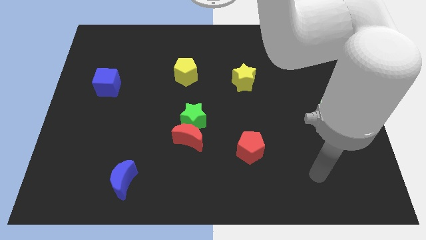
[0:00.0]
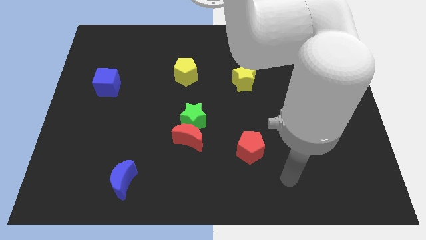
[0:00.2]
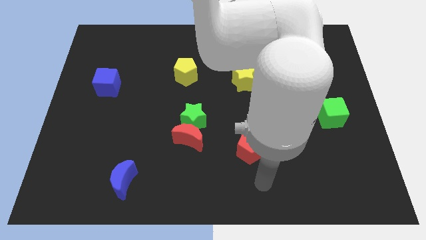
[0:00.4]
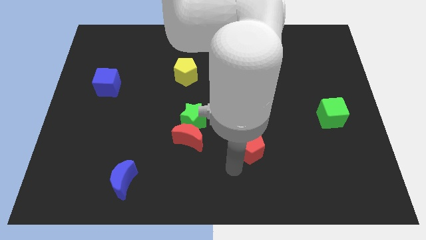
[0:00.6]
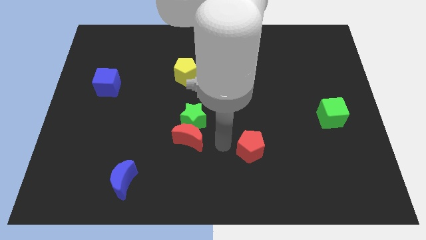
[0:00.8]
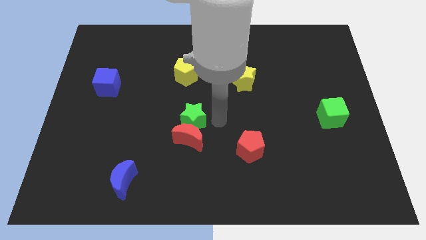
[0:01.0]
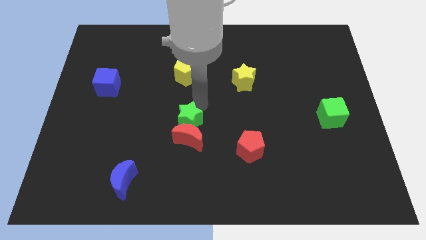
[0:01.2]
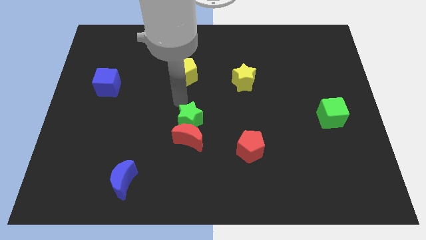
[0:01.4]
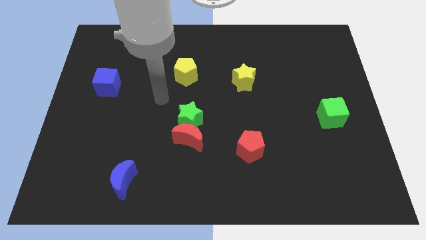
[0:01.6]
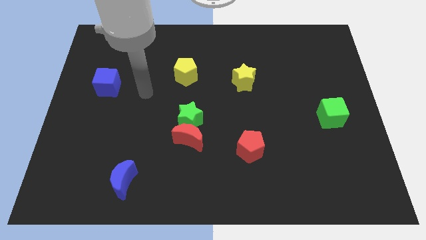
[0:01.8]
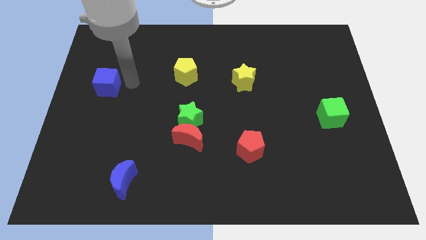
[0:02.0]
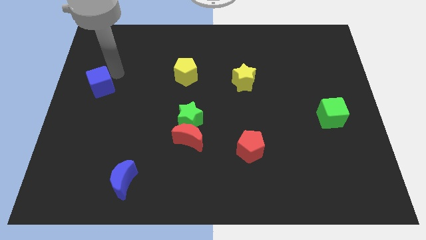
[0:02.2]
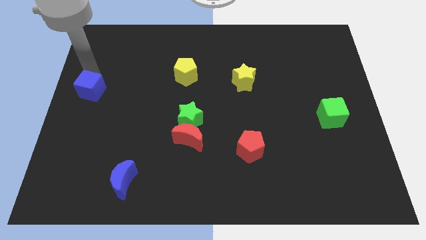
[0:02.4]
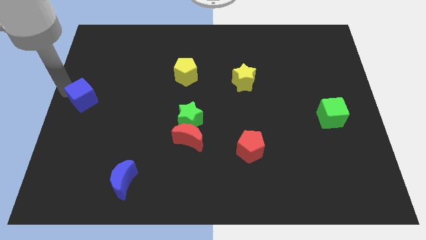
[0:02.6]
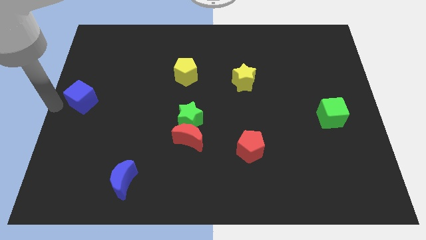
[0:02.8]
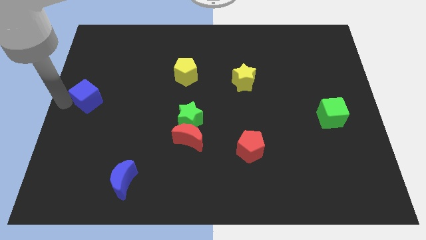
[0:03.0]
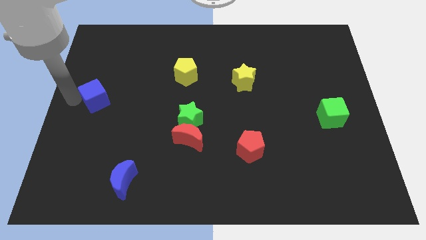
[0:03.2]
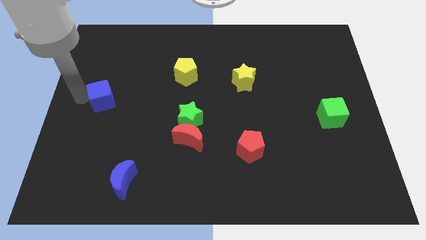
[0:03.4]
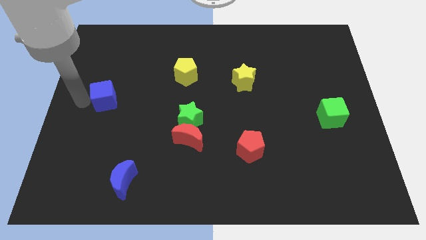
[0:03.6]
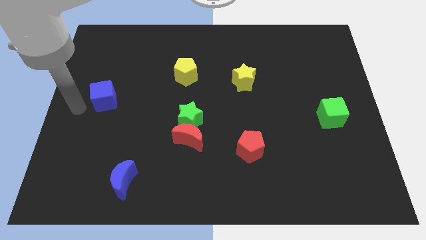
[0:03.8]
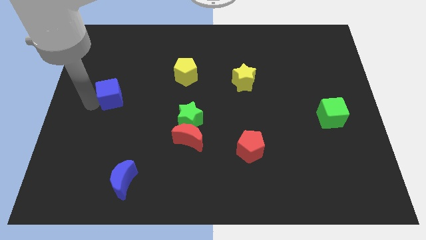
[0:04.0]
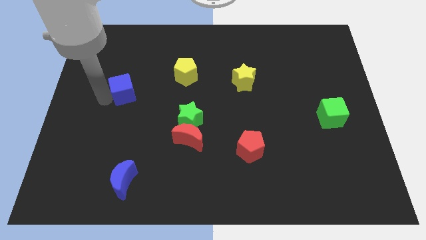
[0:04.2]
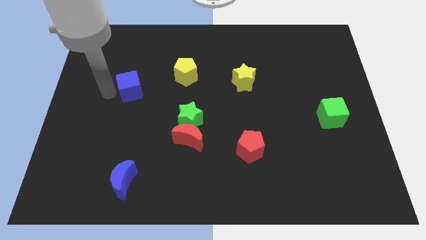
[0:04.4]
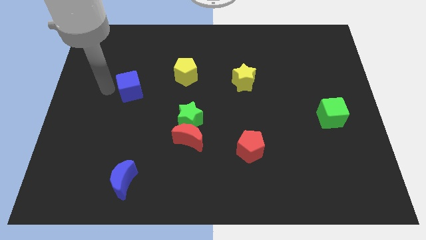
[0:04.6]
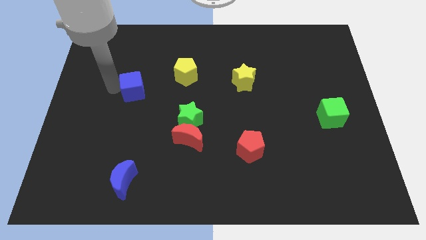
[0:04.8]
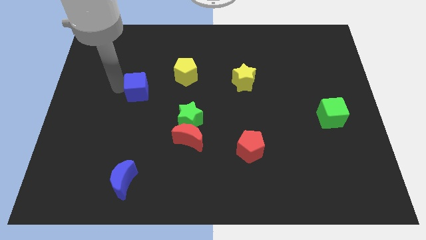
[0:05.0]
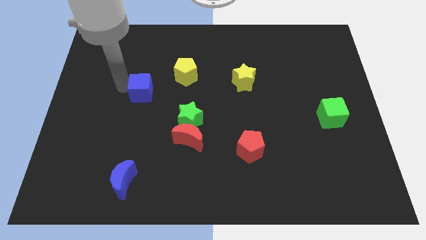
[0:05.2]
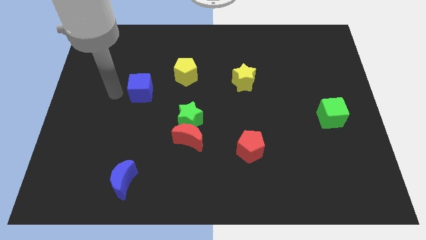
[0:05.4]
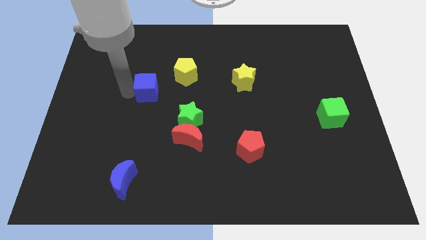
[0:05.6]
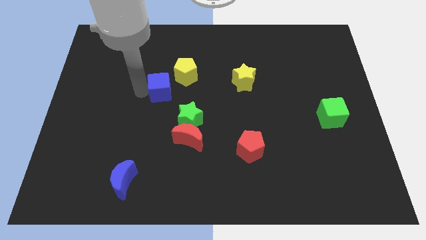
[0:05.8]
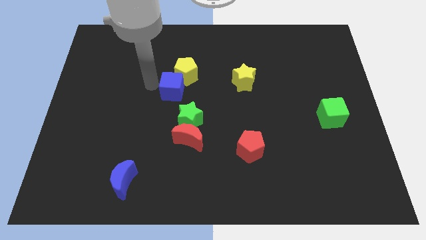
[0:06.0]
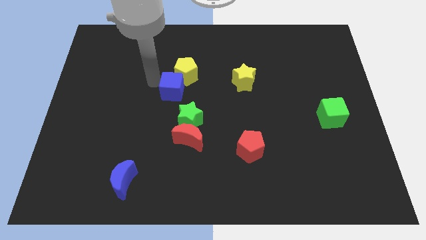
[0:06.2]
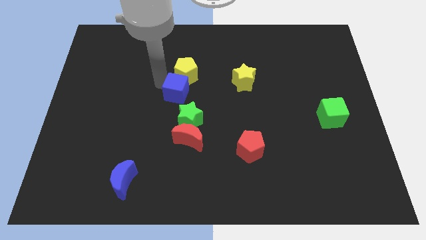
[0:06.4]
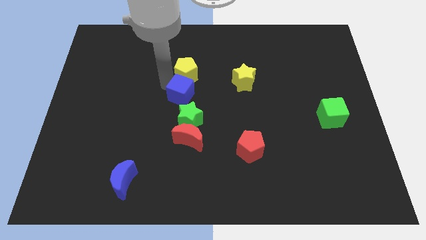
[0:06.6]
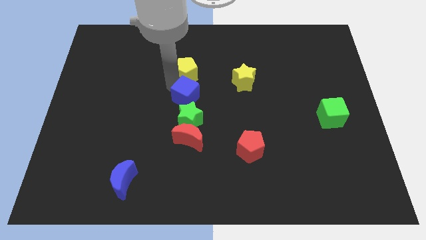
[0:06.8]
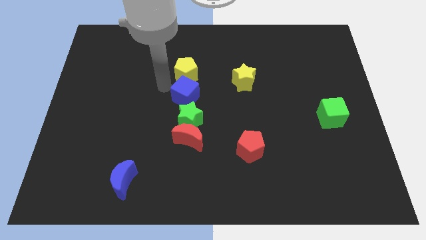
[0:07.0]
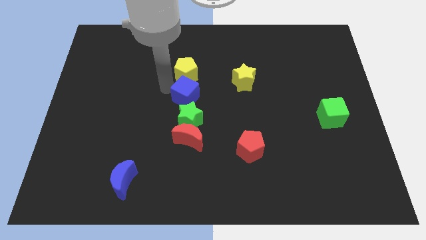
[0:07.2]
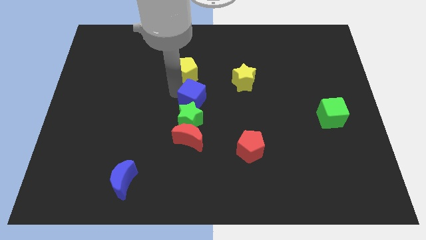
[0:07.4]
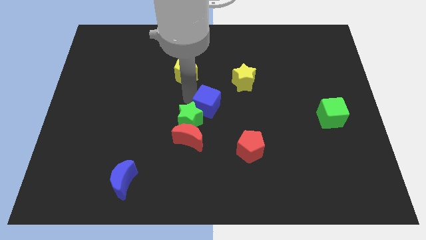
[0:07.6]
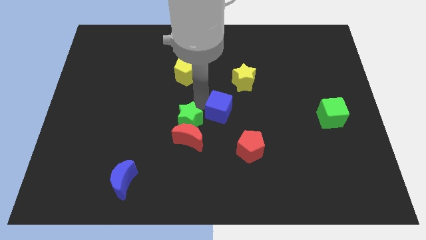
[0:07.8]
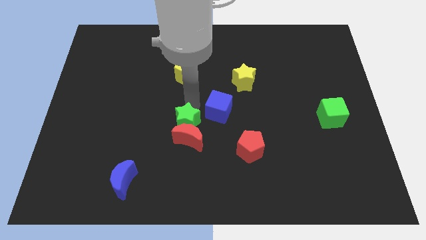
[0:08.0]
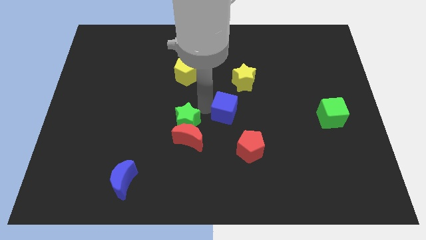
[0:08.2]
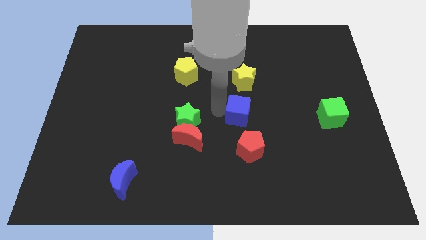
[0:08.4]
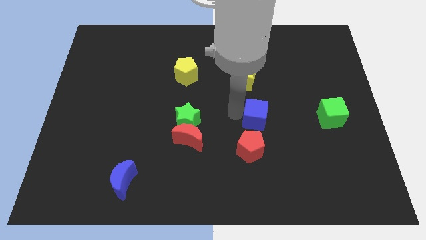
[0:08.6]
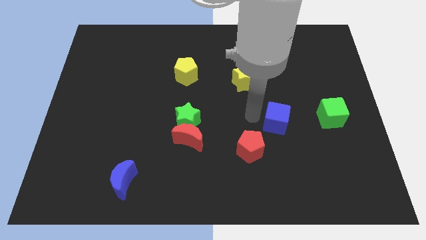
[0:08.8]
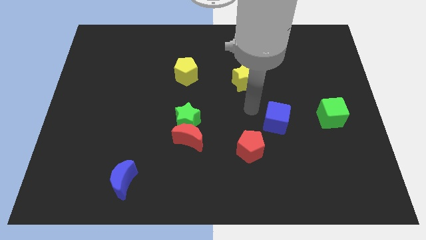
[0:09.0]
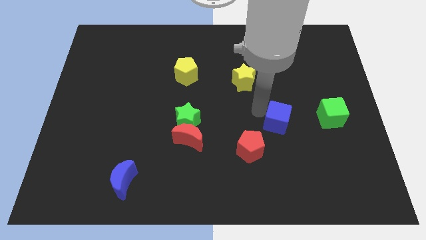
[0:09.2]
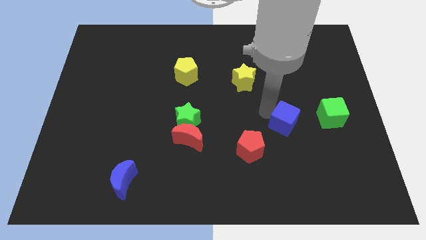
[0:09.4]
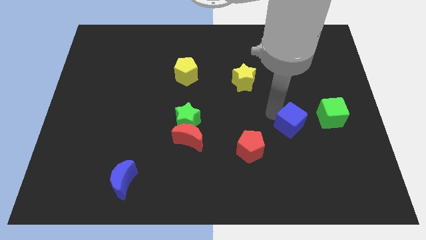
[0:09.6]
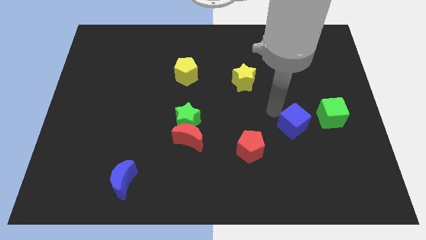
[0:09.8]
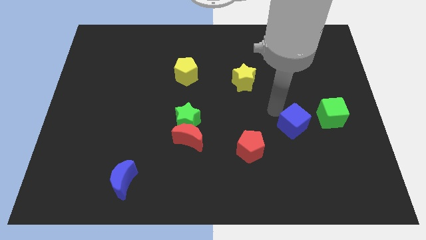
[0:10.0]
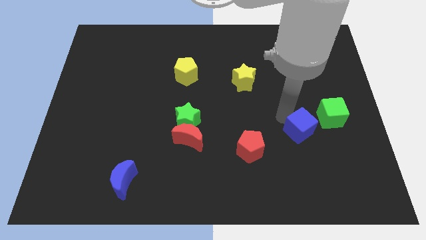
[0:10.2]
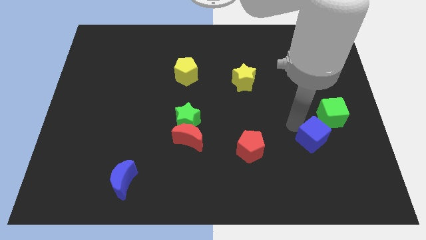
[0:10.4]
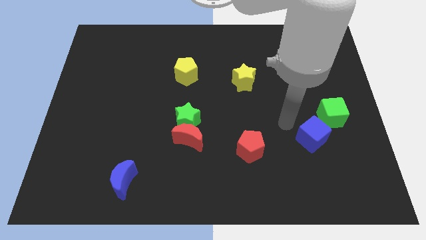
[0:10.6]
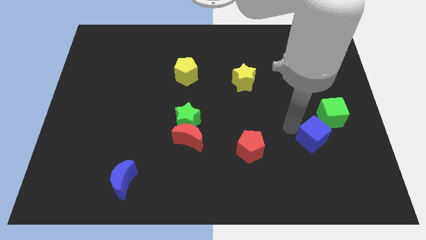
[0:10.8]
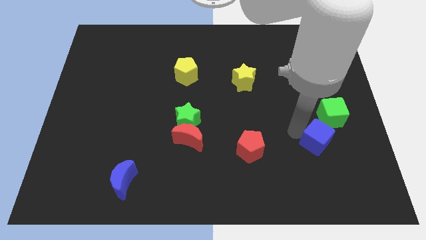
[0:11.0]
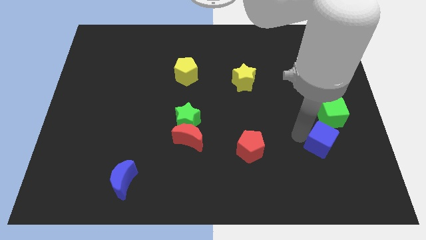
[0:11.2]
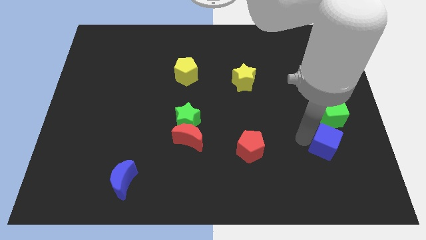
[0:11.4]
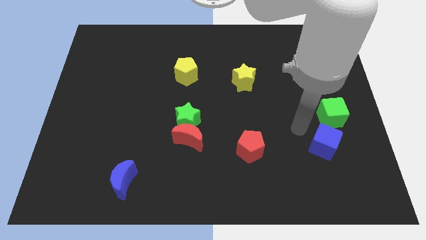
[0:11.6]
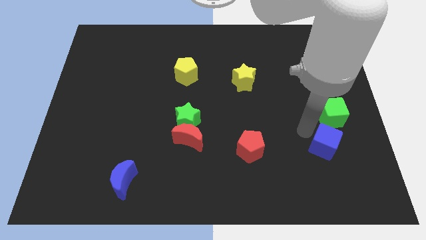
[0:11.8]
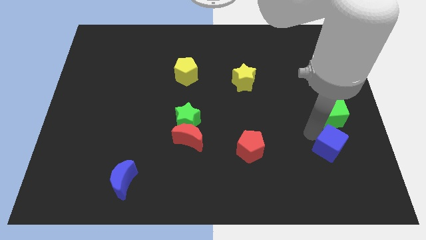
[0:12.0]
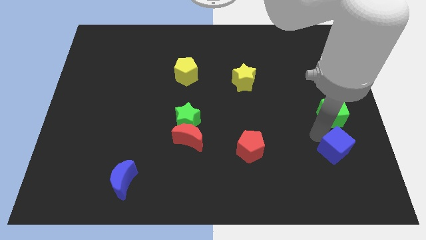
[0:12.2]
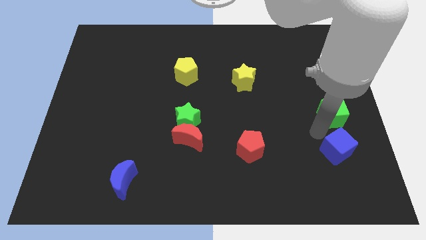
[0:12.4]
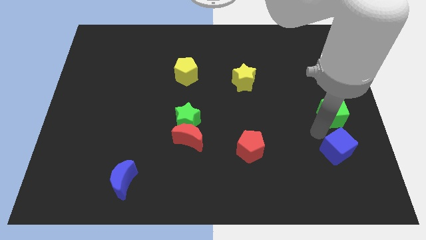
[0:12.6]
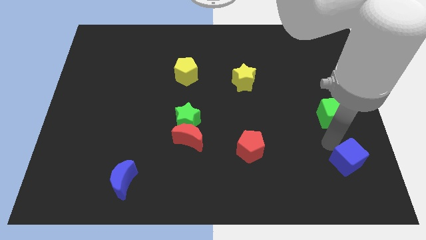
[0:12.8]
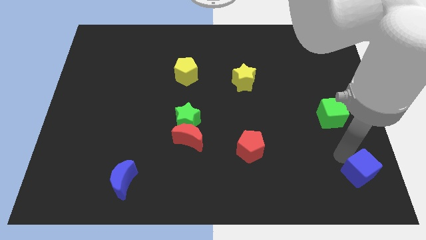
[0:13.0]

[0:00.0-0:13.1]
move the blue cube to the lower right corner
